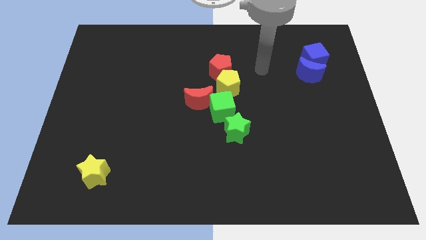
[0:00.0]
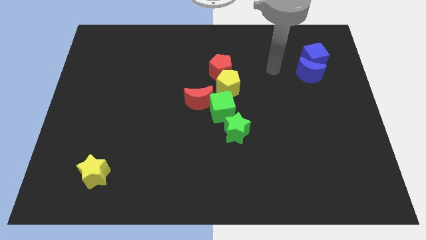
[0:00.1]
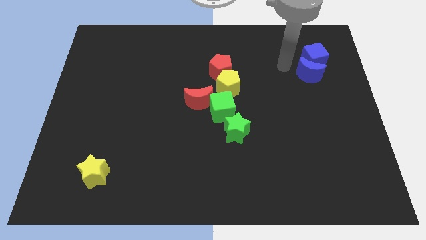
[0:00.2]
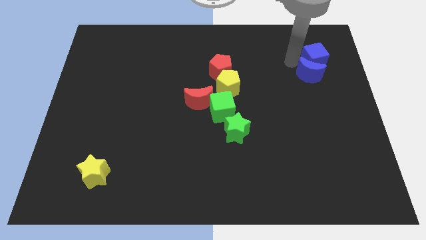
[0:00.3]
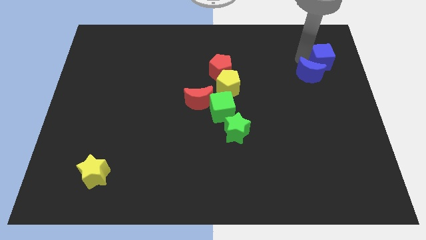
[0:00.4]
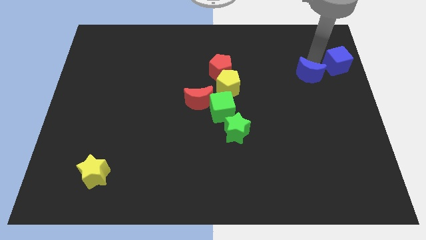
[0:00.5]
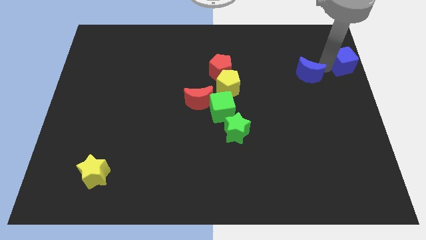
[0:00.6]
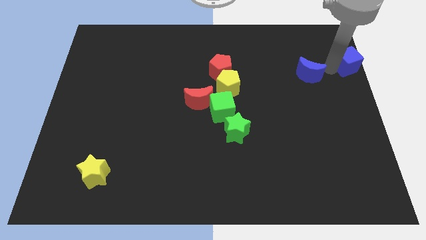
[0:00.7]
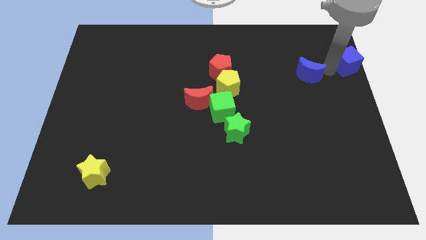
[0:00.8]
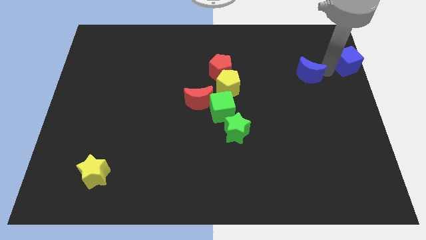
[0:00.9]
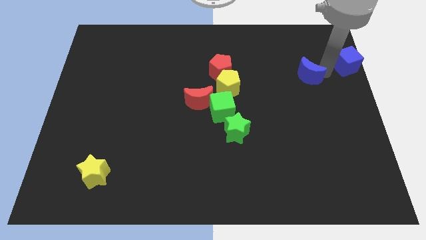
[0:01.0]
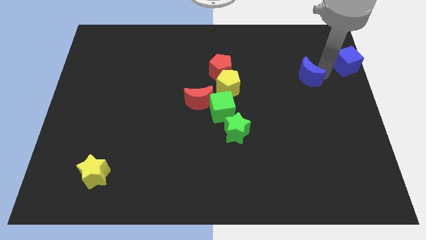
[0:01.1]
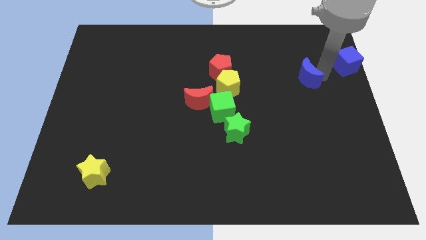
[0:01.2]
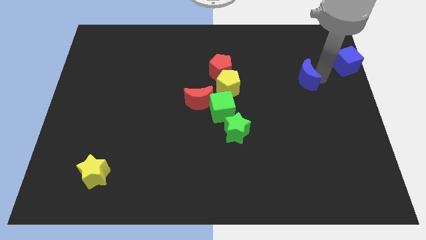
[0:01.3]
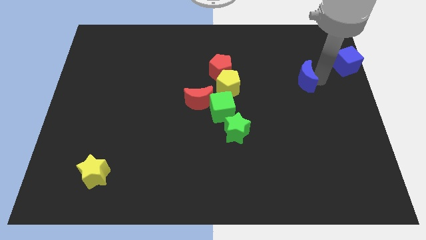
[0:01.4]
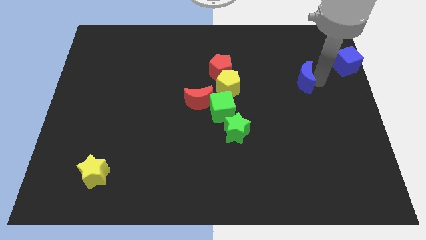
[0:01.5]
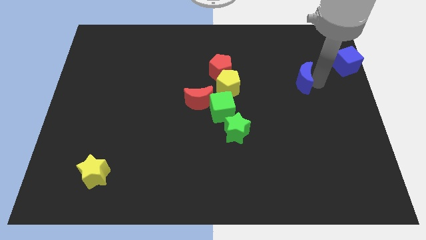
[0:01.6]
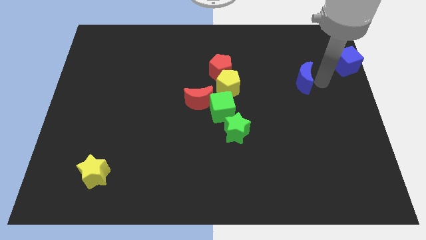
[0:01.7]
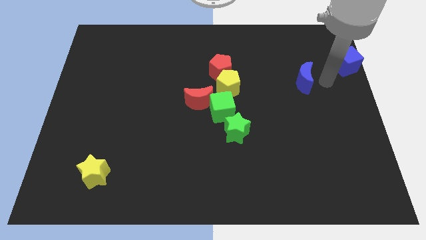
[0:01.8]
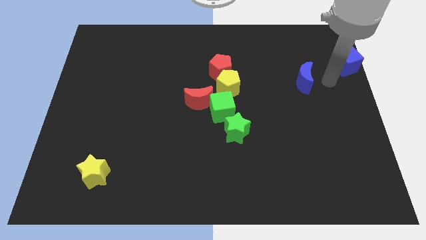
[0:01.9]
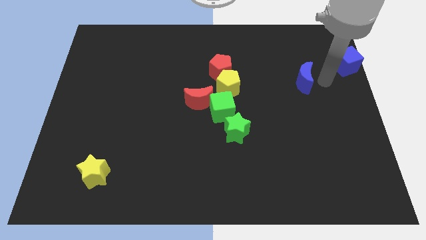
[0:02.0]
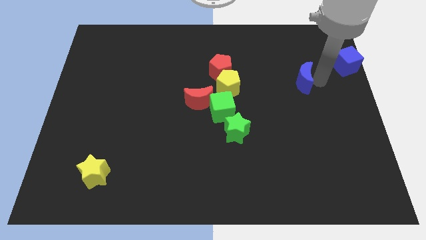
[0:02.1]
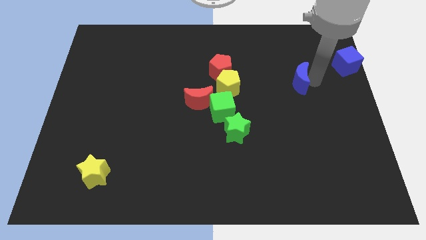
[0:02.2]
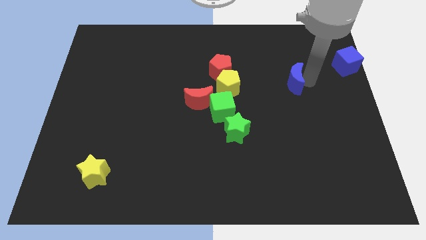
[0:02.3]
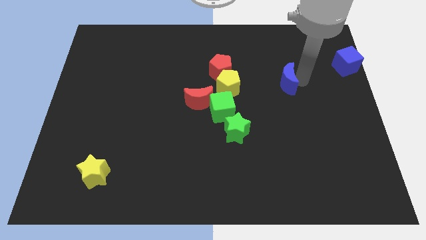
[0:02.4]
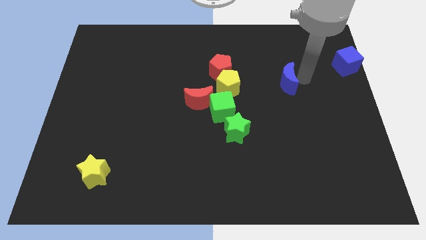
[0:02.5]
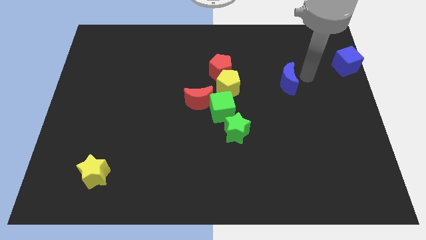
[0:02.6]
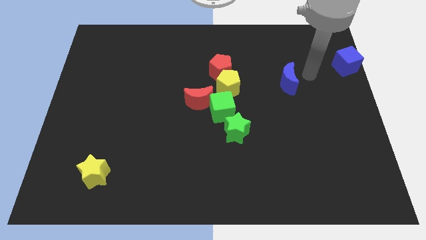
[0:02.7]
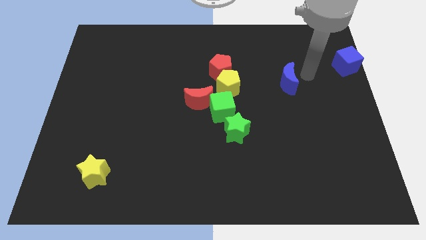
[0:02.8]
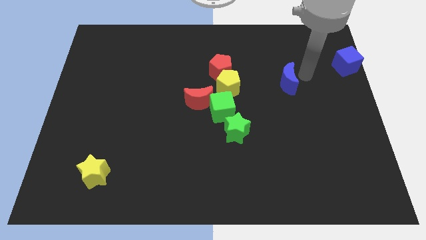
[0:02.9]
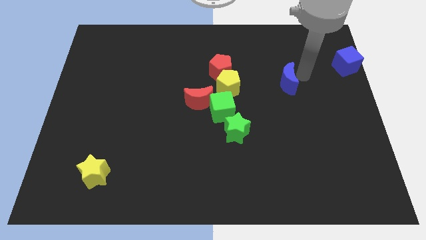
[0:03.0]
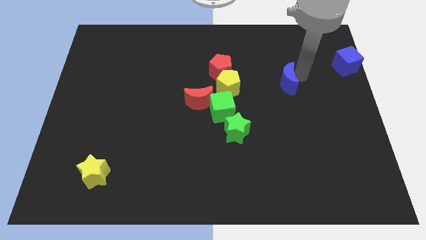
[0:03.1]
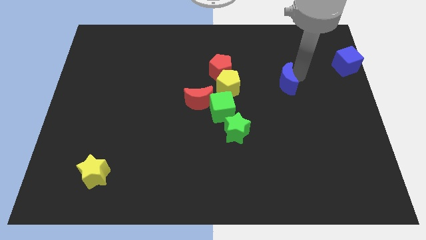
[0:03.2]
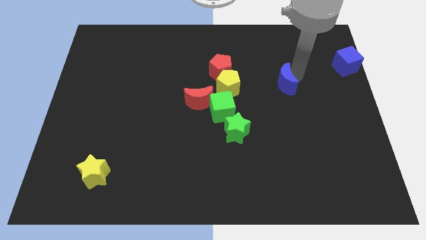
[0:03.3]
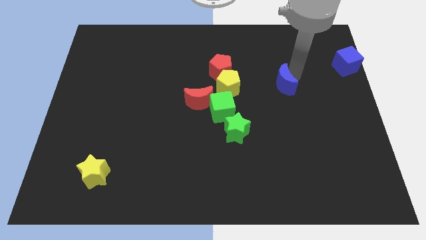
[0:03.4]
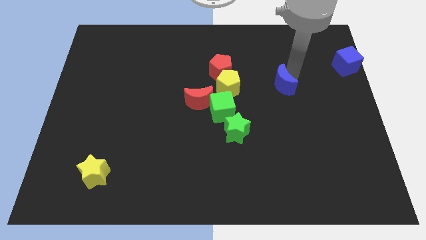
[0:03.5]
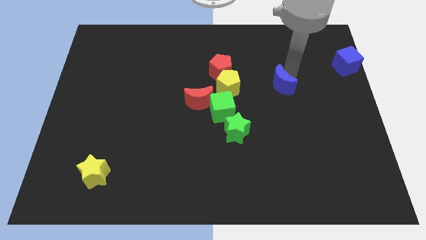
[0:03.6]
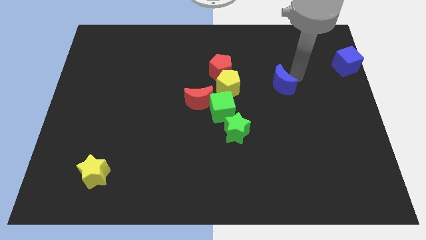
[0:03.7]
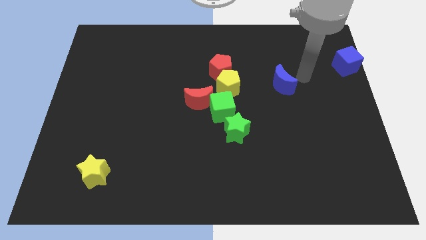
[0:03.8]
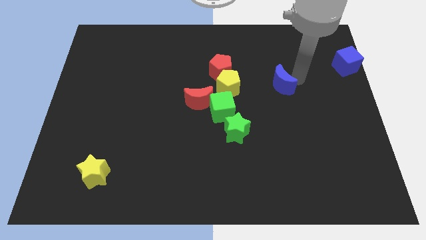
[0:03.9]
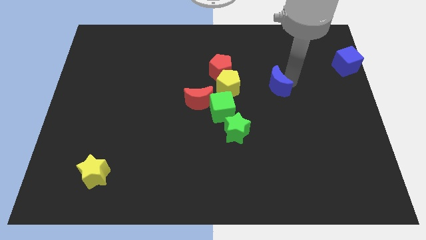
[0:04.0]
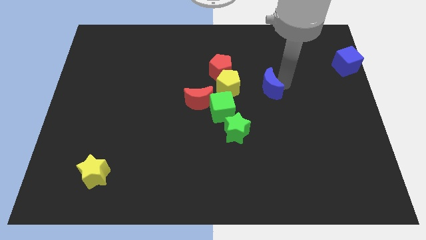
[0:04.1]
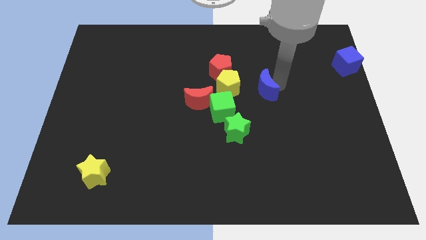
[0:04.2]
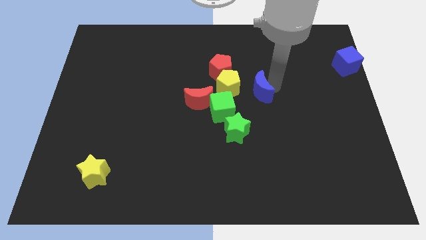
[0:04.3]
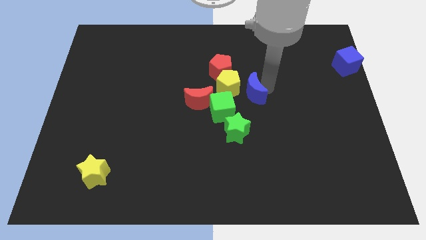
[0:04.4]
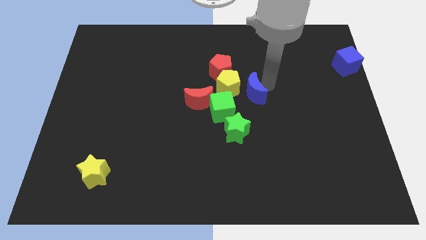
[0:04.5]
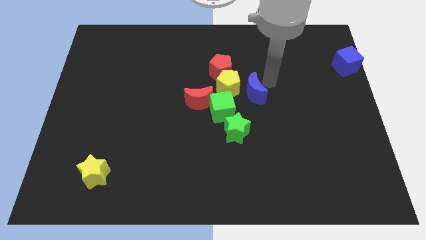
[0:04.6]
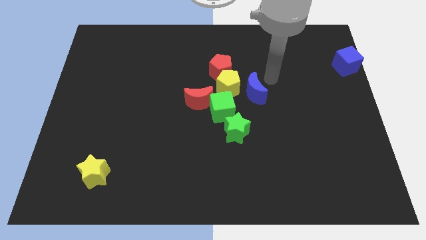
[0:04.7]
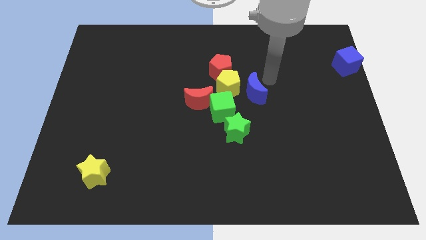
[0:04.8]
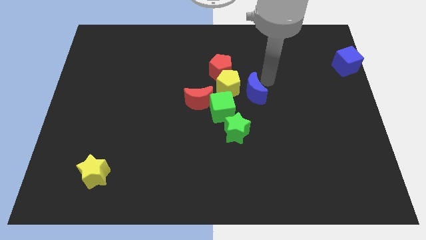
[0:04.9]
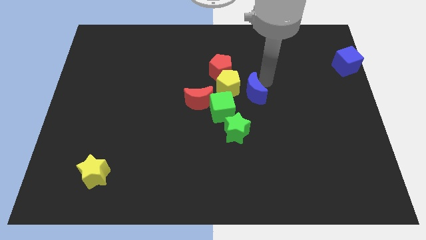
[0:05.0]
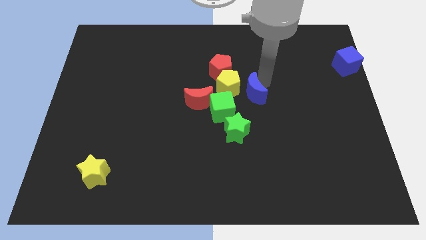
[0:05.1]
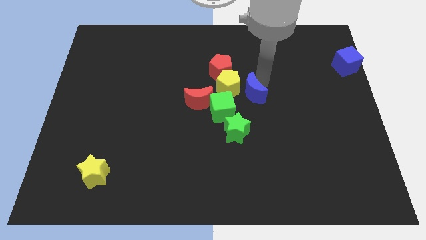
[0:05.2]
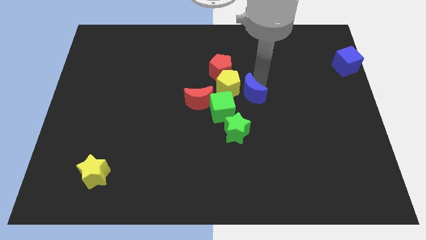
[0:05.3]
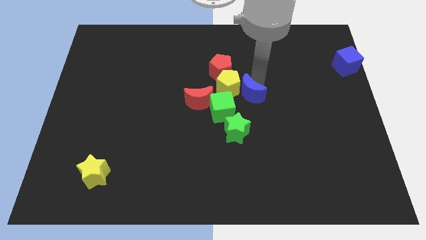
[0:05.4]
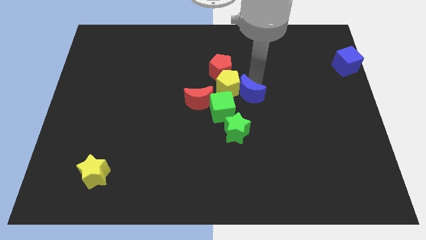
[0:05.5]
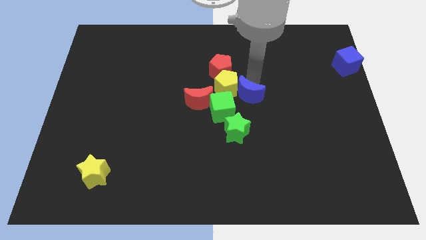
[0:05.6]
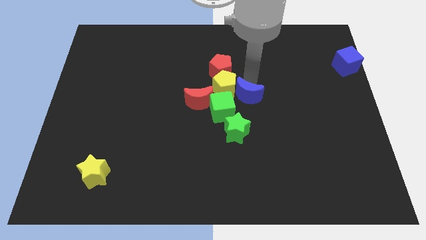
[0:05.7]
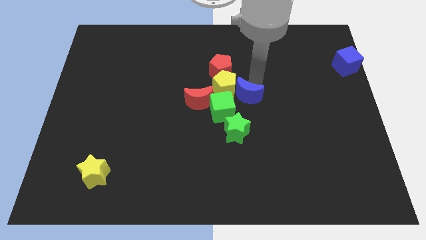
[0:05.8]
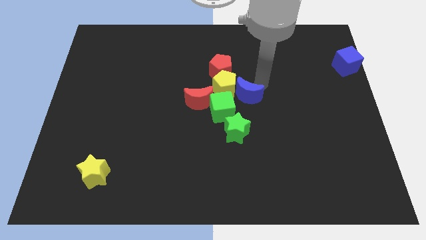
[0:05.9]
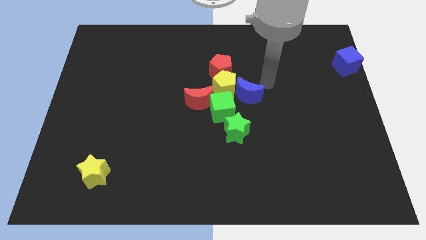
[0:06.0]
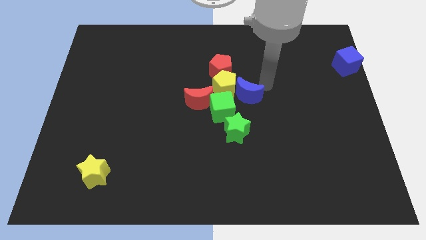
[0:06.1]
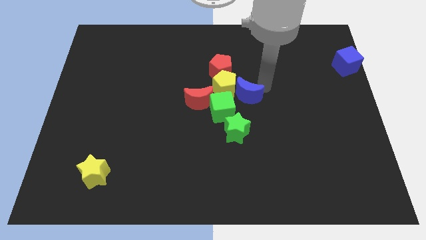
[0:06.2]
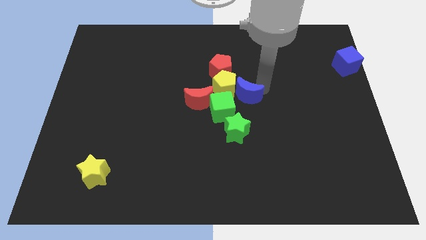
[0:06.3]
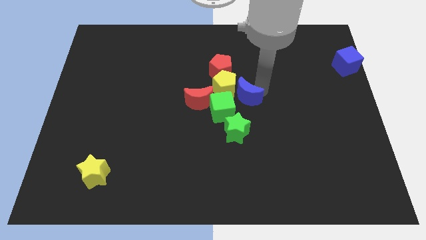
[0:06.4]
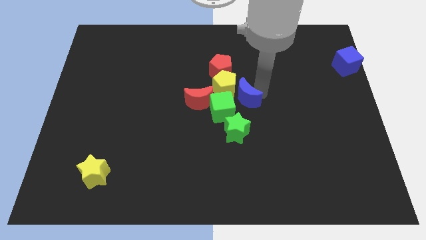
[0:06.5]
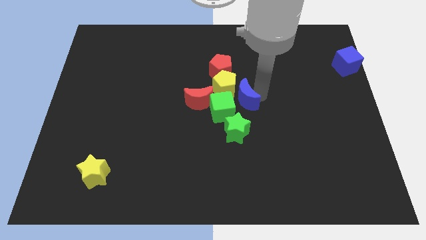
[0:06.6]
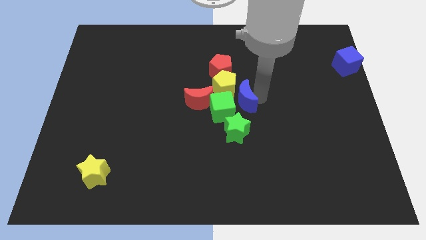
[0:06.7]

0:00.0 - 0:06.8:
slide the blue moon close to the green cube
